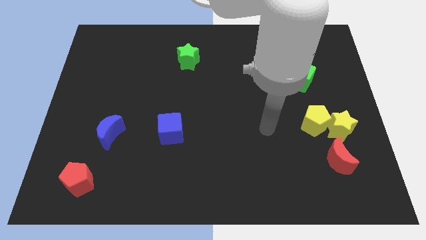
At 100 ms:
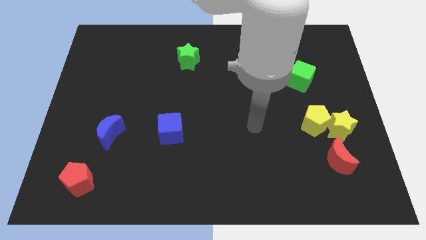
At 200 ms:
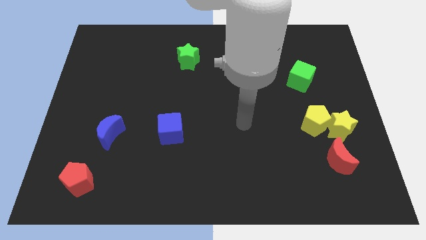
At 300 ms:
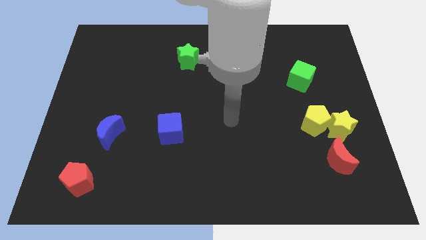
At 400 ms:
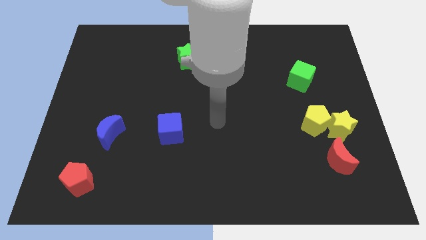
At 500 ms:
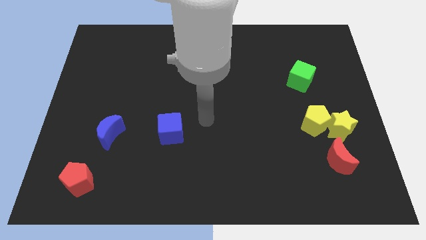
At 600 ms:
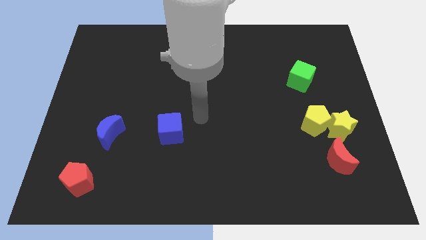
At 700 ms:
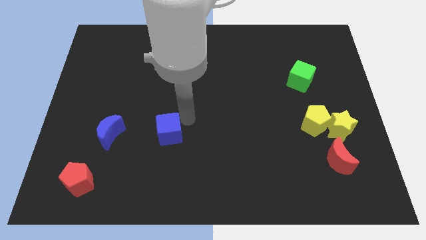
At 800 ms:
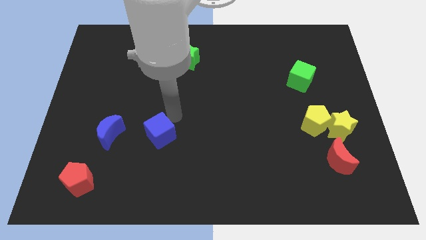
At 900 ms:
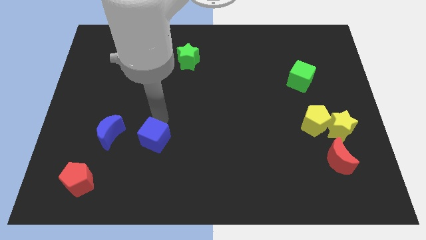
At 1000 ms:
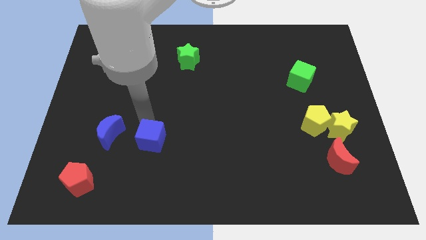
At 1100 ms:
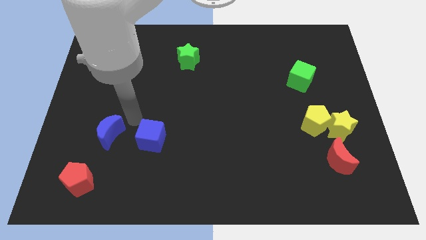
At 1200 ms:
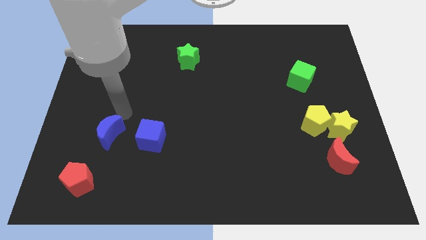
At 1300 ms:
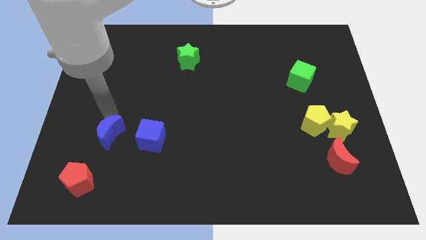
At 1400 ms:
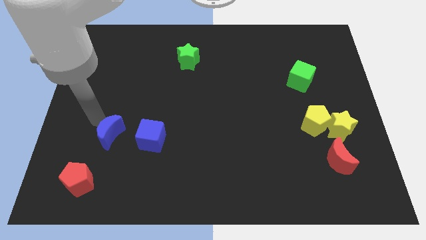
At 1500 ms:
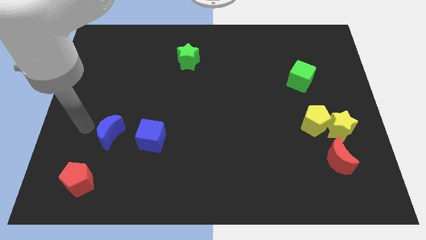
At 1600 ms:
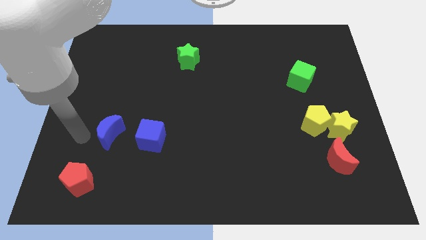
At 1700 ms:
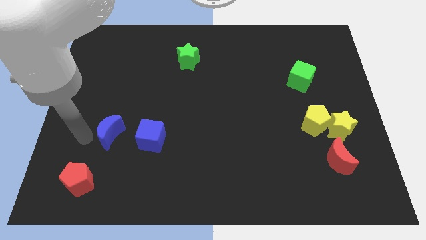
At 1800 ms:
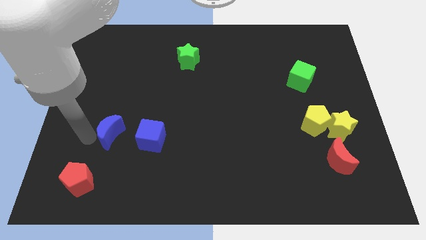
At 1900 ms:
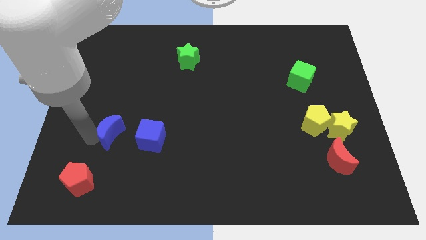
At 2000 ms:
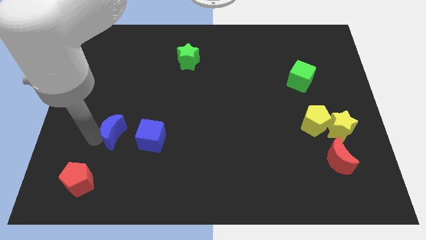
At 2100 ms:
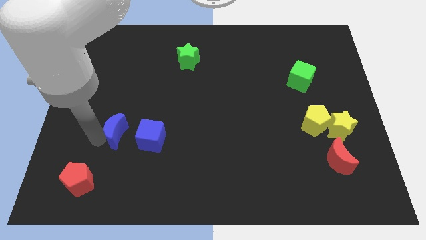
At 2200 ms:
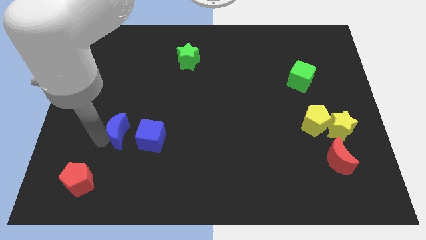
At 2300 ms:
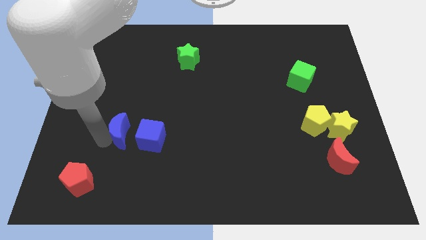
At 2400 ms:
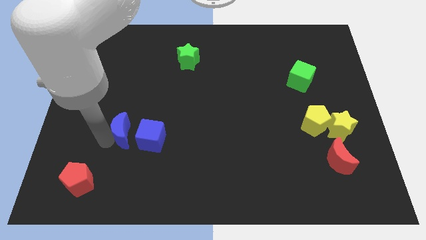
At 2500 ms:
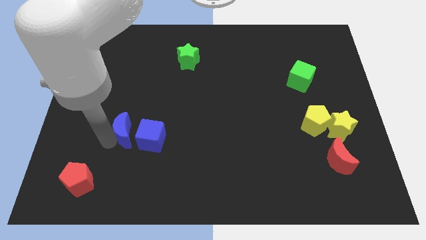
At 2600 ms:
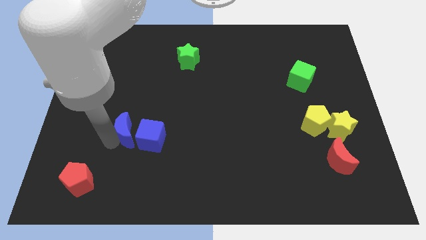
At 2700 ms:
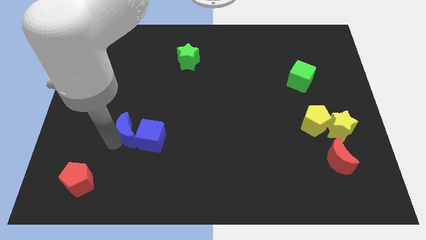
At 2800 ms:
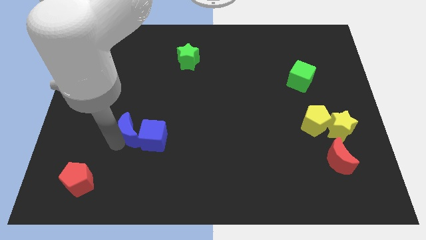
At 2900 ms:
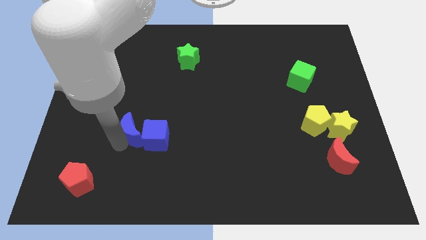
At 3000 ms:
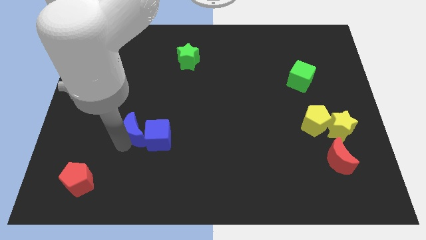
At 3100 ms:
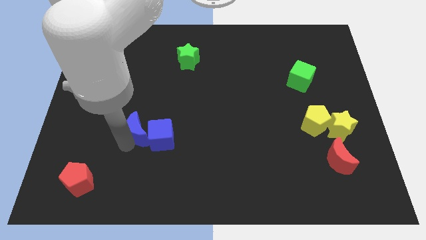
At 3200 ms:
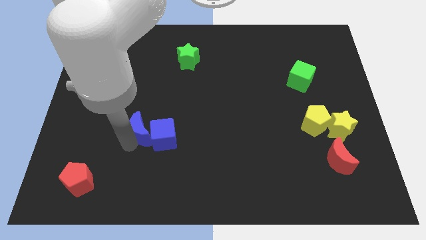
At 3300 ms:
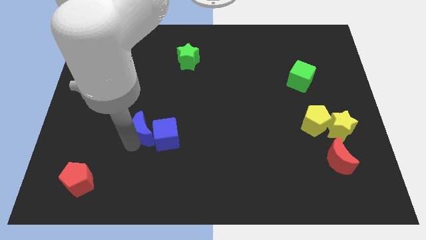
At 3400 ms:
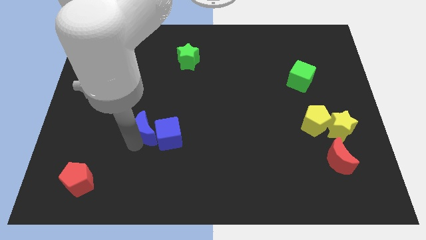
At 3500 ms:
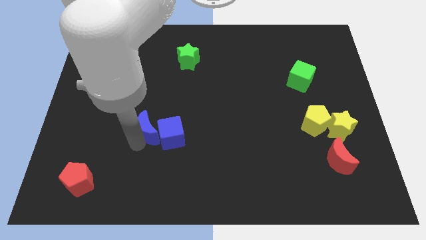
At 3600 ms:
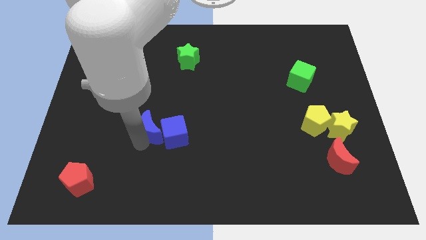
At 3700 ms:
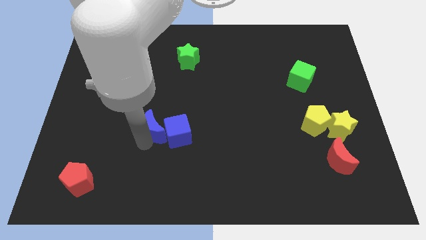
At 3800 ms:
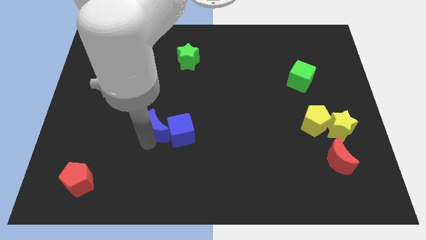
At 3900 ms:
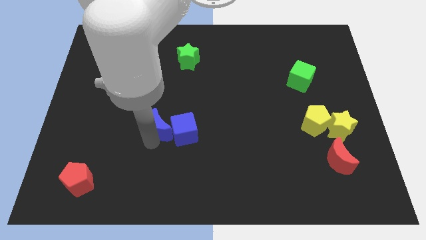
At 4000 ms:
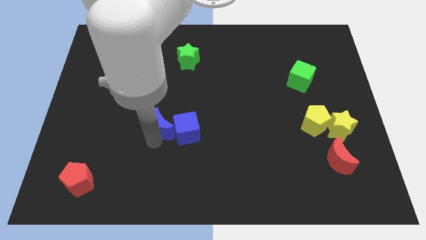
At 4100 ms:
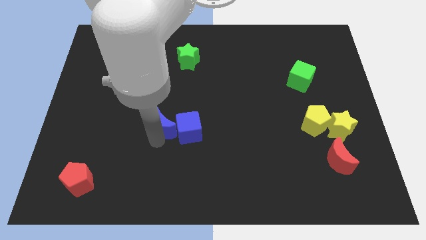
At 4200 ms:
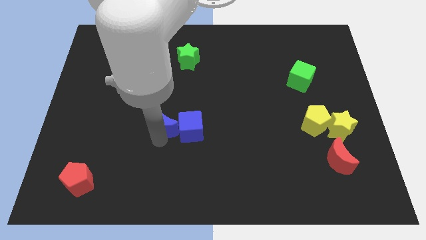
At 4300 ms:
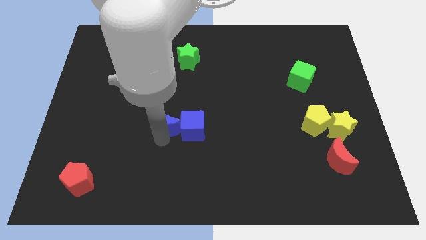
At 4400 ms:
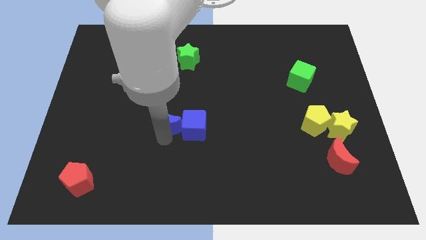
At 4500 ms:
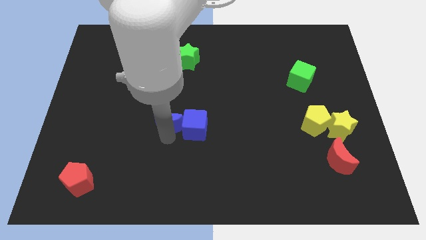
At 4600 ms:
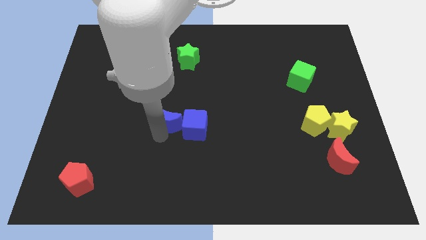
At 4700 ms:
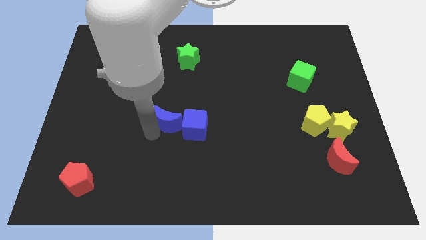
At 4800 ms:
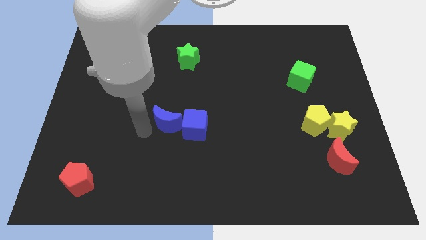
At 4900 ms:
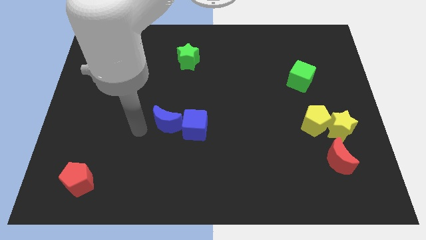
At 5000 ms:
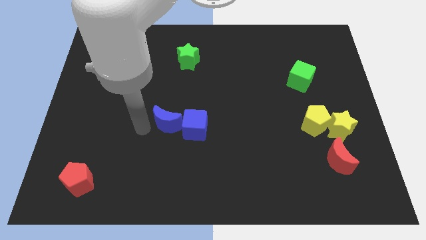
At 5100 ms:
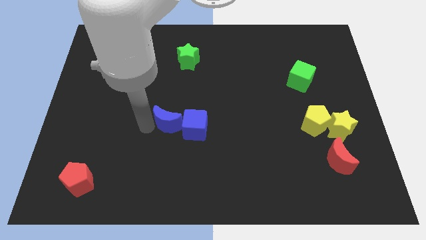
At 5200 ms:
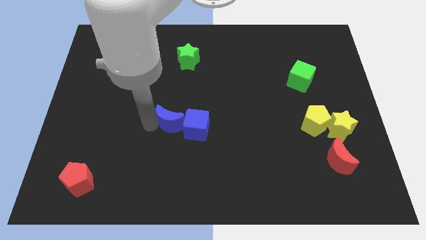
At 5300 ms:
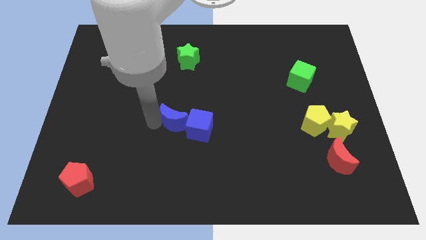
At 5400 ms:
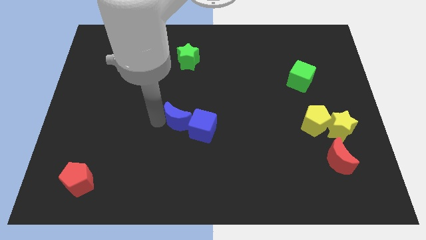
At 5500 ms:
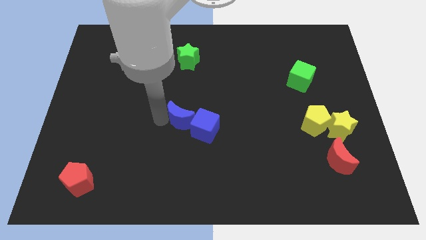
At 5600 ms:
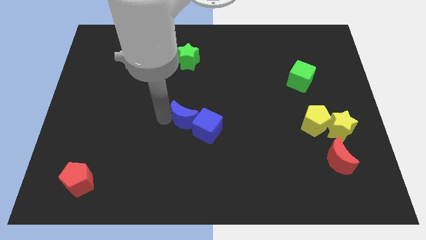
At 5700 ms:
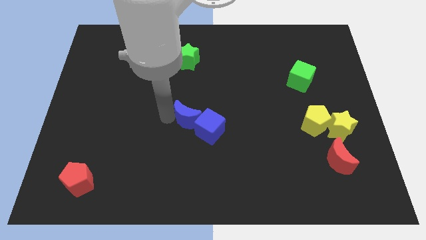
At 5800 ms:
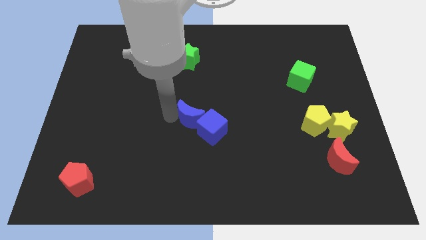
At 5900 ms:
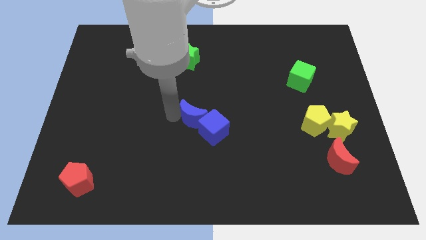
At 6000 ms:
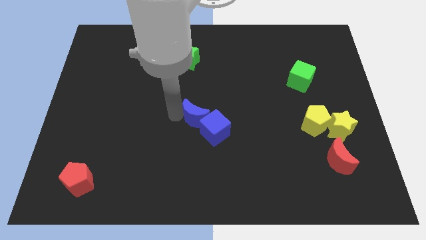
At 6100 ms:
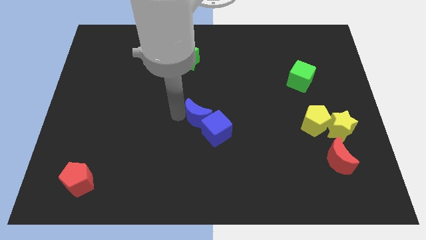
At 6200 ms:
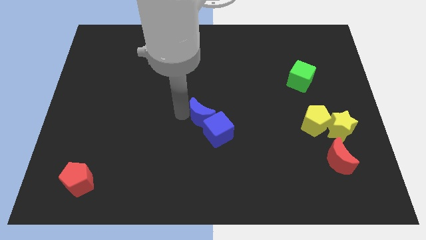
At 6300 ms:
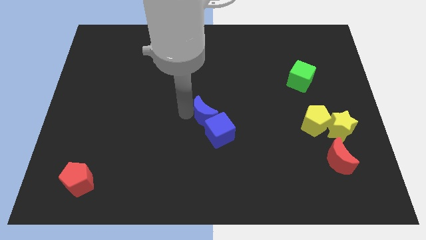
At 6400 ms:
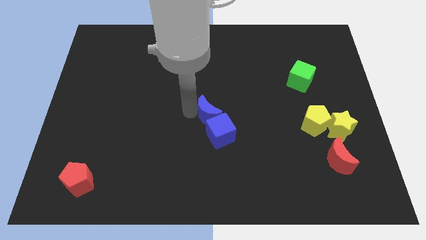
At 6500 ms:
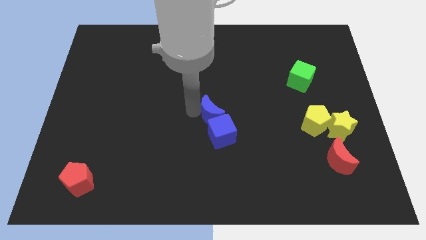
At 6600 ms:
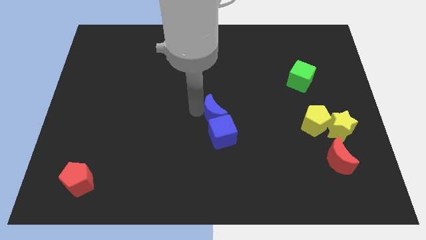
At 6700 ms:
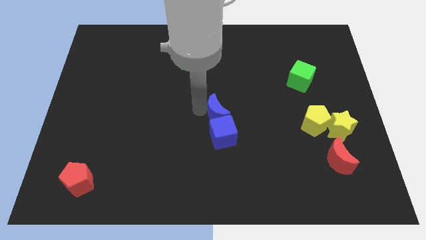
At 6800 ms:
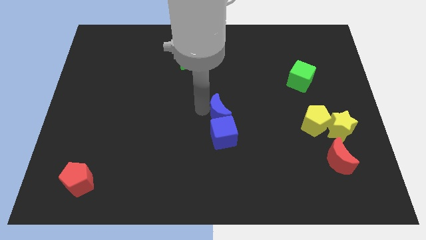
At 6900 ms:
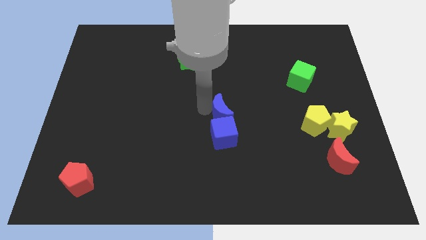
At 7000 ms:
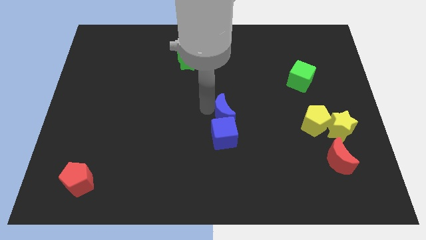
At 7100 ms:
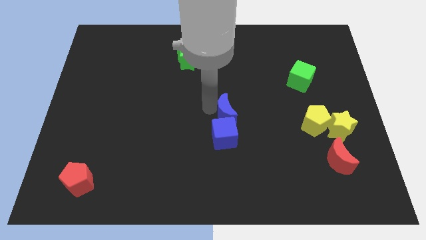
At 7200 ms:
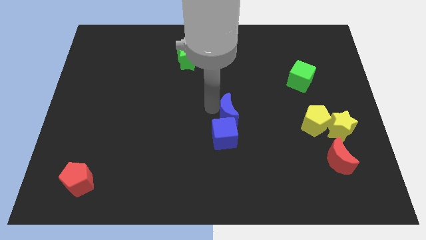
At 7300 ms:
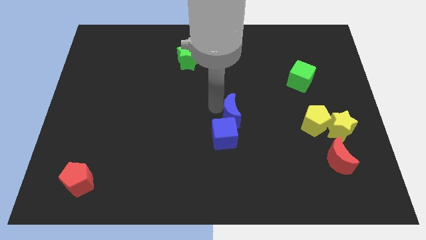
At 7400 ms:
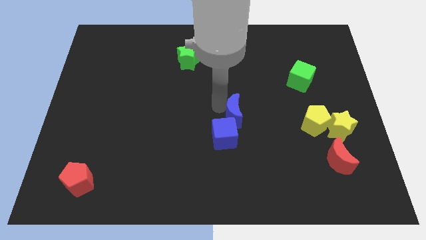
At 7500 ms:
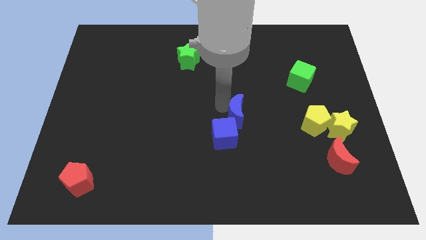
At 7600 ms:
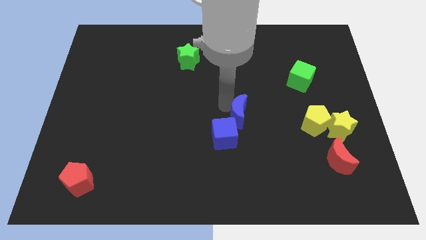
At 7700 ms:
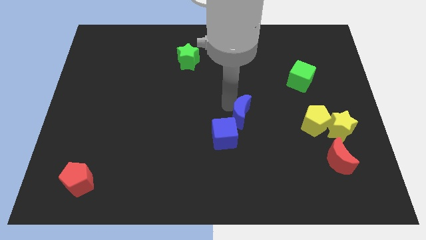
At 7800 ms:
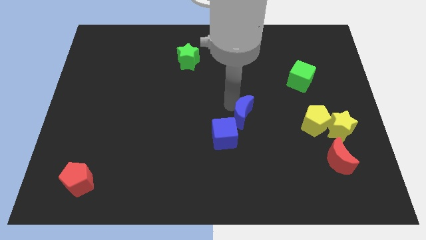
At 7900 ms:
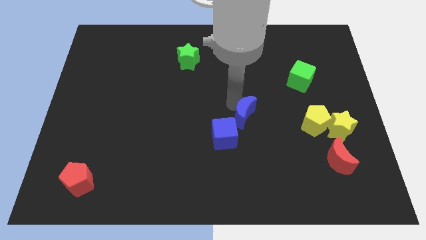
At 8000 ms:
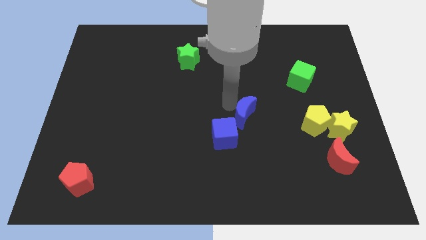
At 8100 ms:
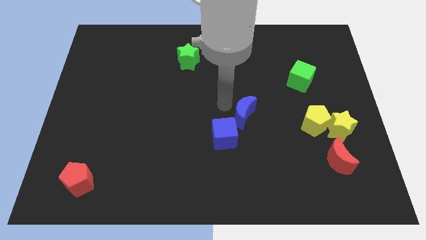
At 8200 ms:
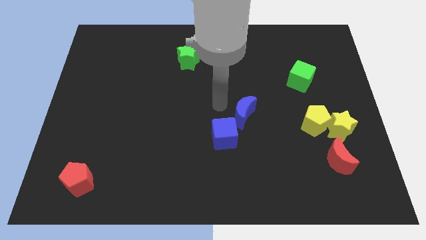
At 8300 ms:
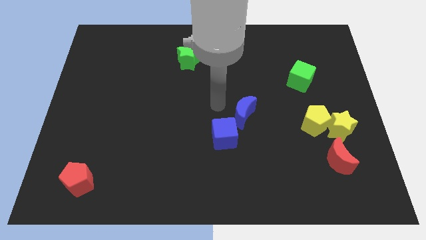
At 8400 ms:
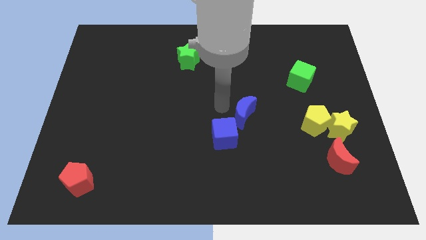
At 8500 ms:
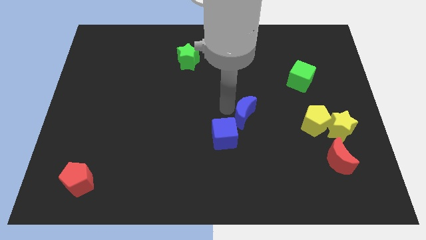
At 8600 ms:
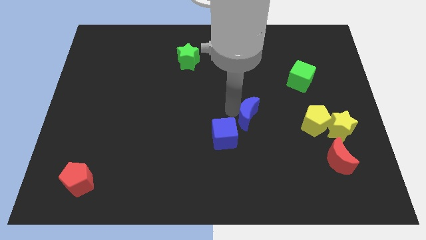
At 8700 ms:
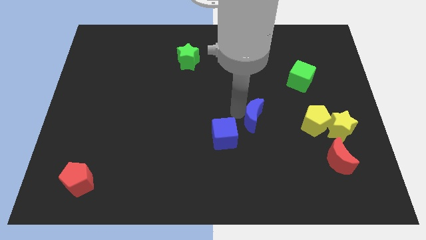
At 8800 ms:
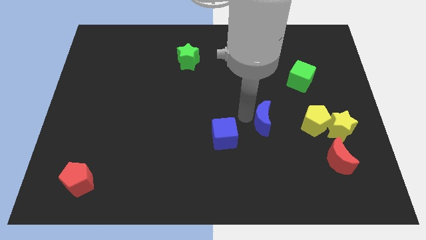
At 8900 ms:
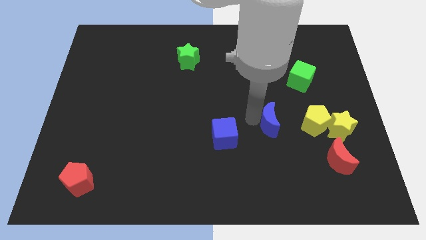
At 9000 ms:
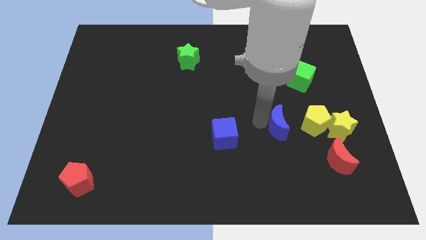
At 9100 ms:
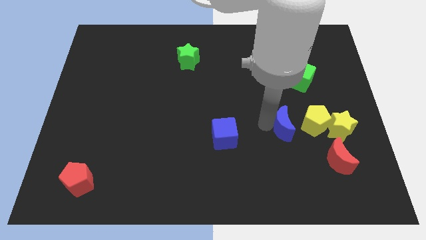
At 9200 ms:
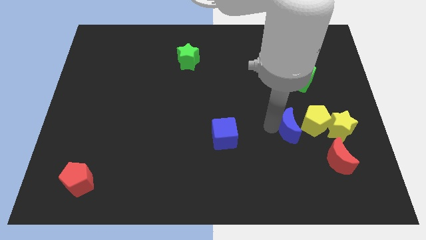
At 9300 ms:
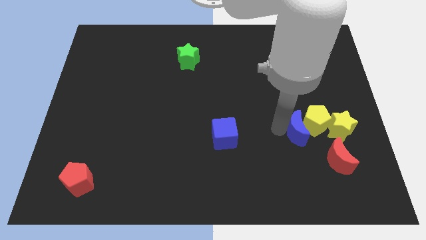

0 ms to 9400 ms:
move the blue moon towards the yellow pentagon
